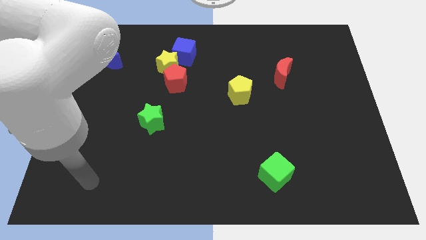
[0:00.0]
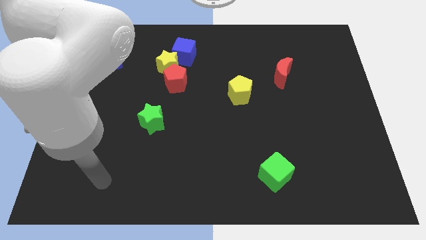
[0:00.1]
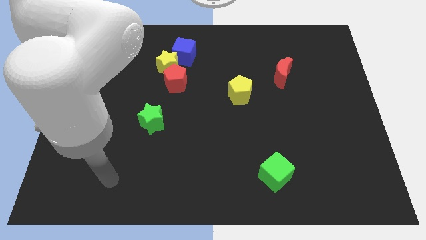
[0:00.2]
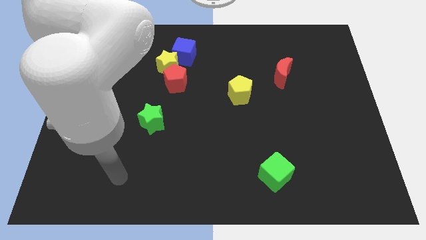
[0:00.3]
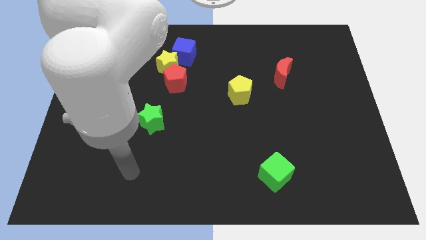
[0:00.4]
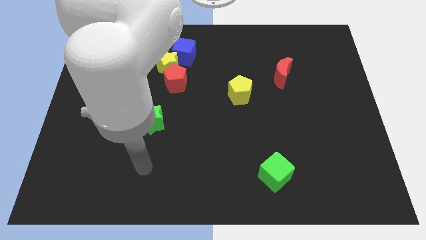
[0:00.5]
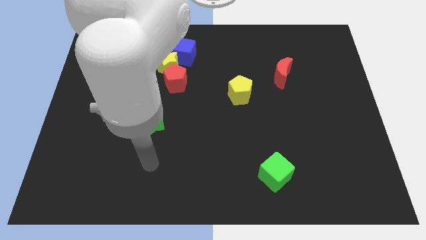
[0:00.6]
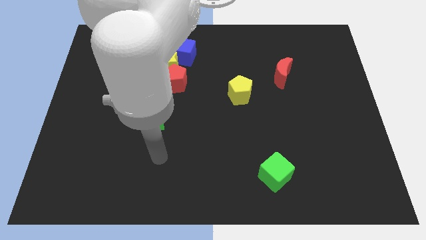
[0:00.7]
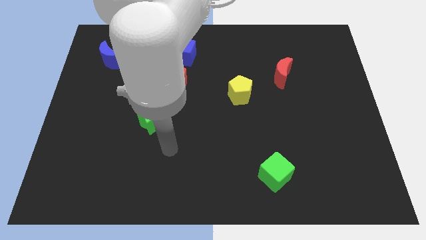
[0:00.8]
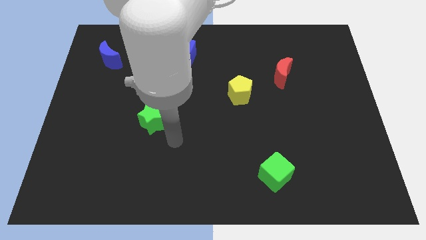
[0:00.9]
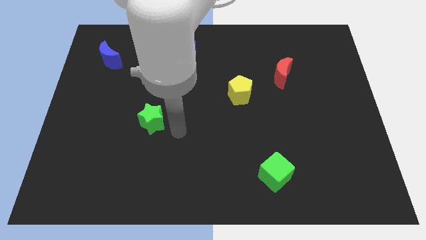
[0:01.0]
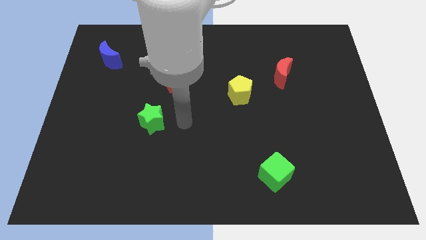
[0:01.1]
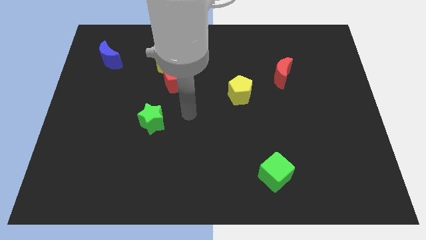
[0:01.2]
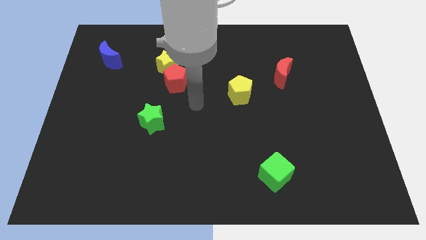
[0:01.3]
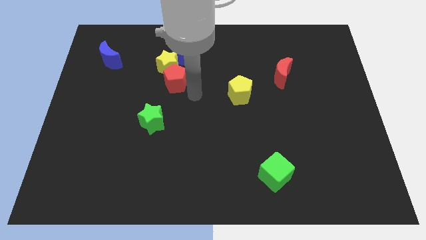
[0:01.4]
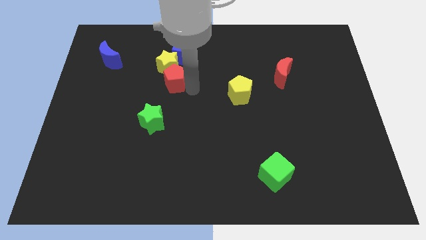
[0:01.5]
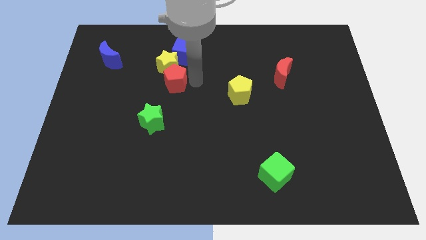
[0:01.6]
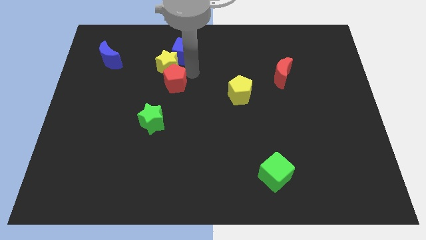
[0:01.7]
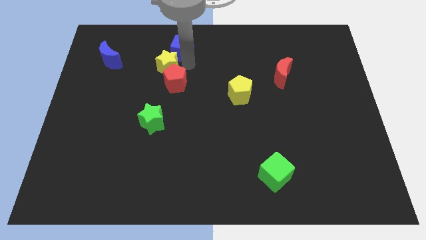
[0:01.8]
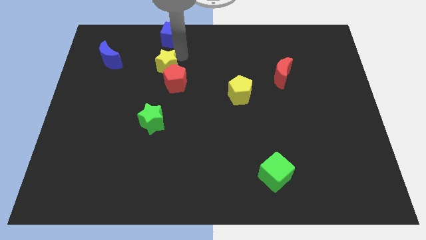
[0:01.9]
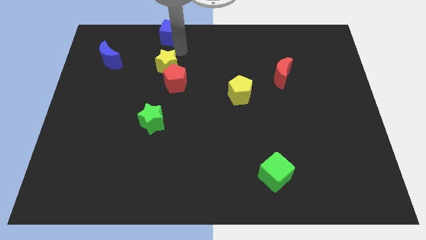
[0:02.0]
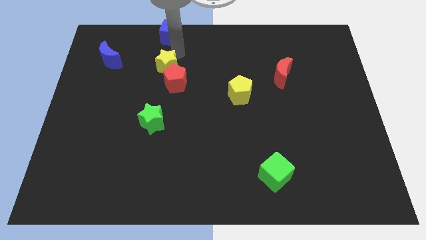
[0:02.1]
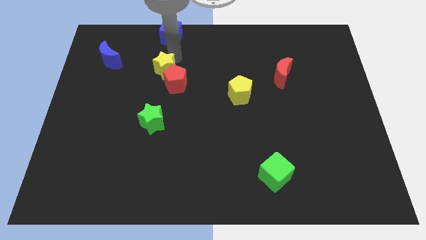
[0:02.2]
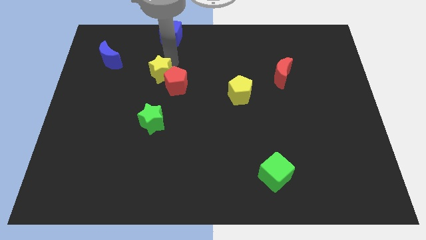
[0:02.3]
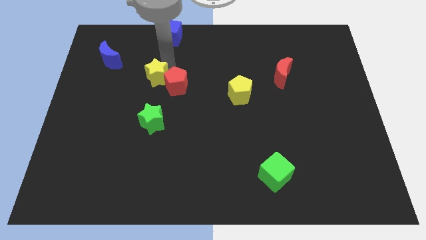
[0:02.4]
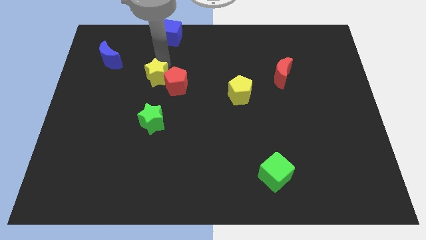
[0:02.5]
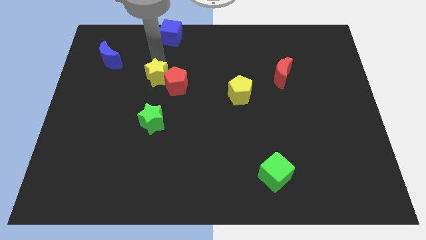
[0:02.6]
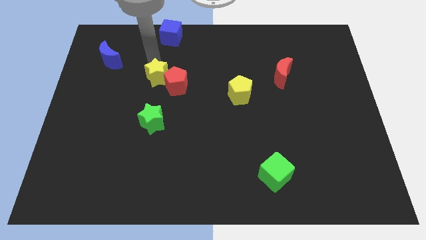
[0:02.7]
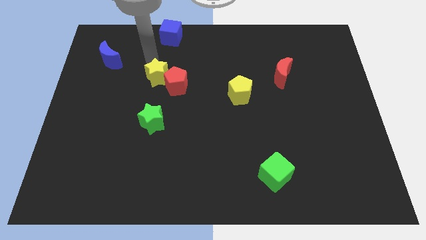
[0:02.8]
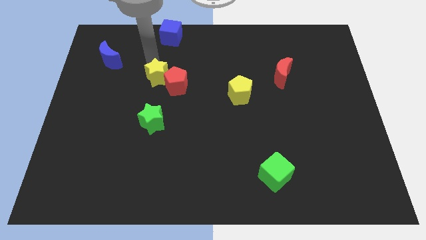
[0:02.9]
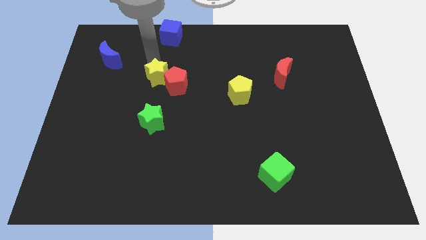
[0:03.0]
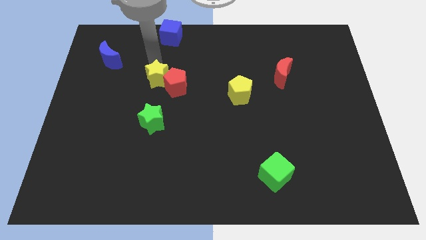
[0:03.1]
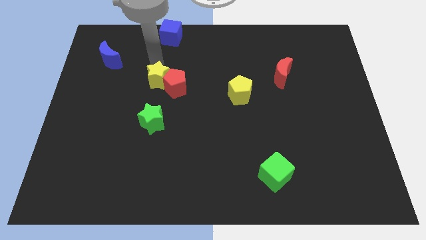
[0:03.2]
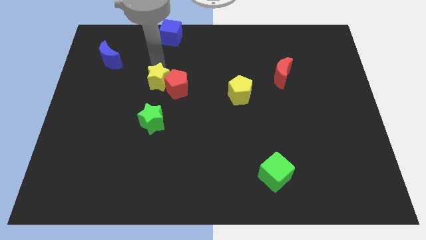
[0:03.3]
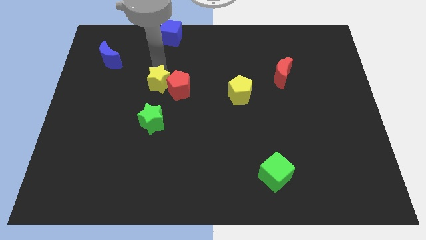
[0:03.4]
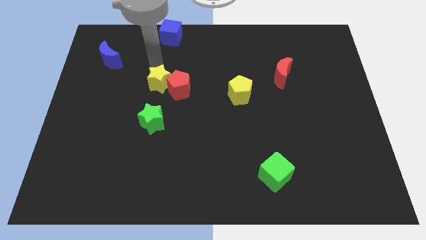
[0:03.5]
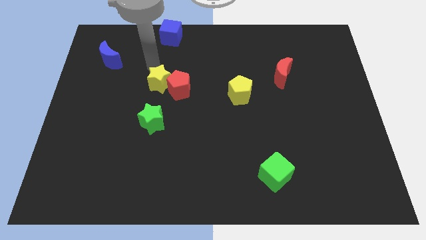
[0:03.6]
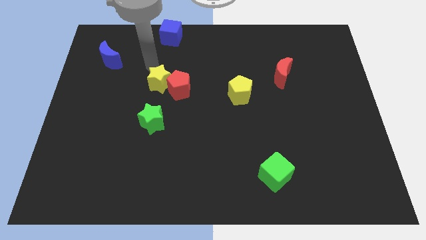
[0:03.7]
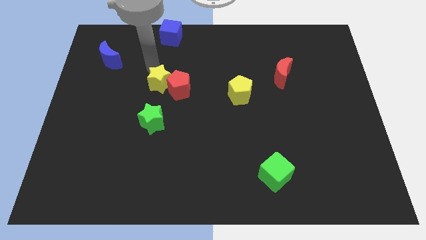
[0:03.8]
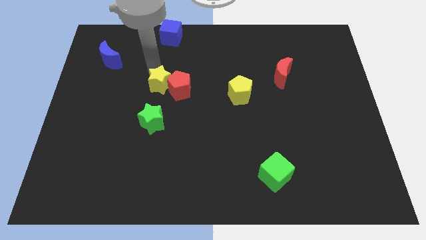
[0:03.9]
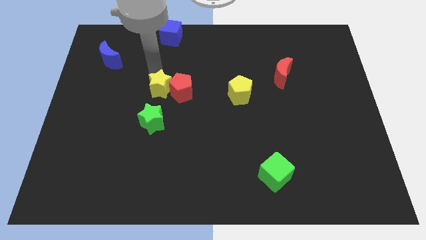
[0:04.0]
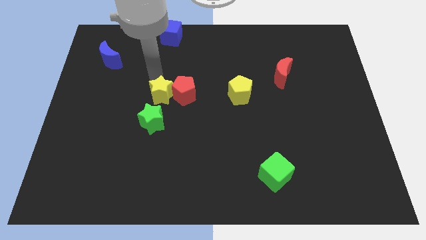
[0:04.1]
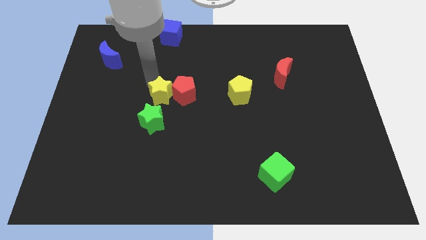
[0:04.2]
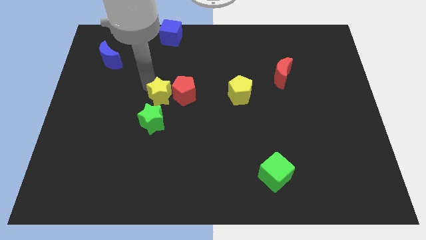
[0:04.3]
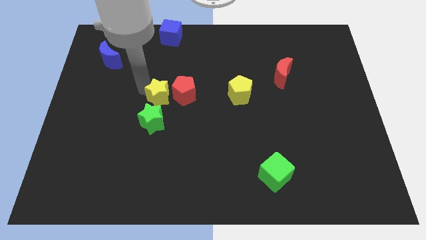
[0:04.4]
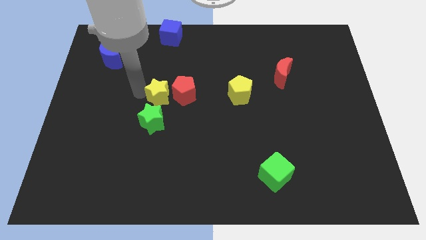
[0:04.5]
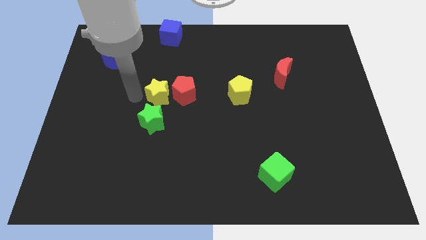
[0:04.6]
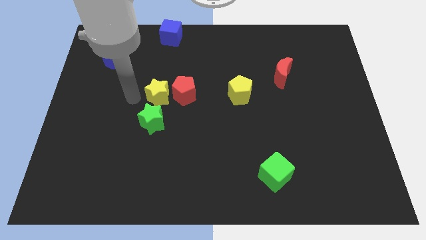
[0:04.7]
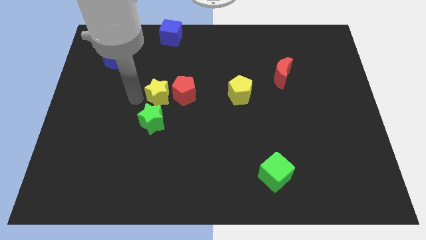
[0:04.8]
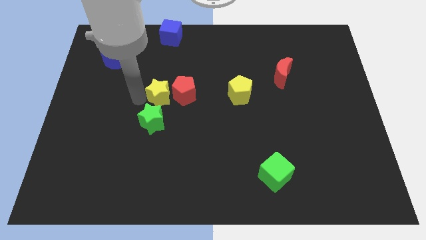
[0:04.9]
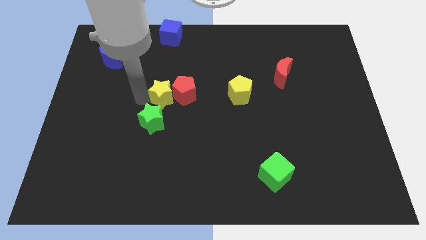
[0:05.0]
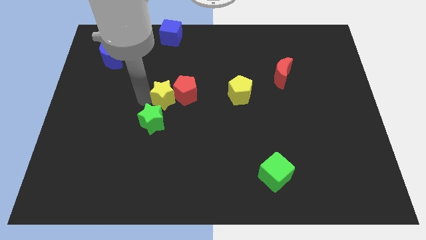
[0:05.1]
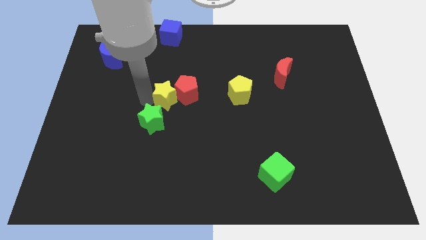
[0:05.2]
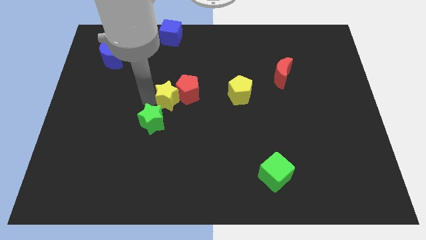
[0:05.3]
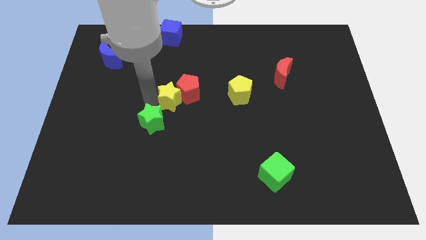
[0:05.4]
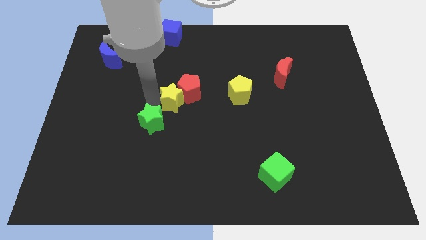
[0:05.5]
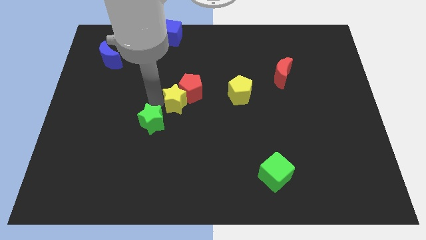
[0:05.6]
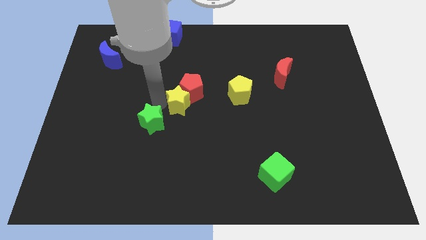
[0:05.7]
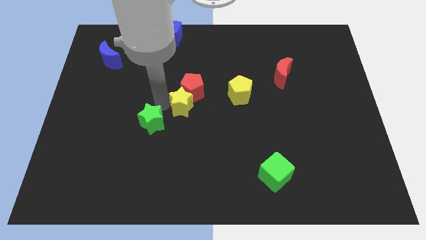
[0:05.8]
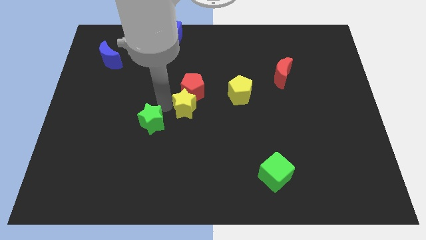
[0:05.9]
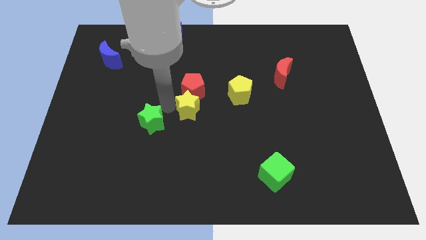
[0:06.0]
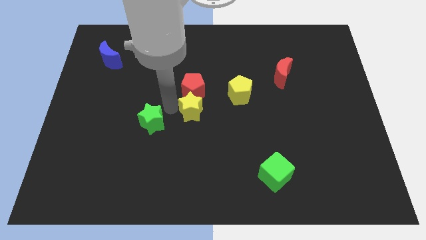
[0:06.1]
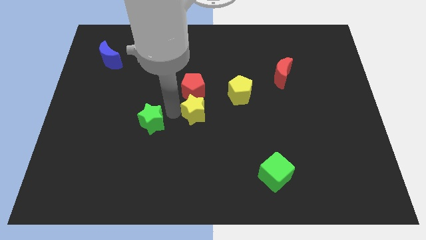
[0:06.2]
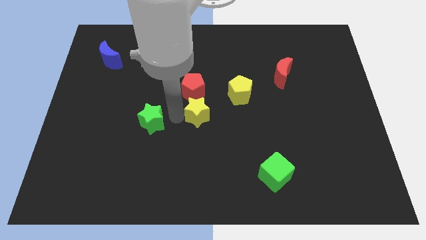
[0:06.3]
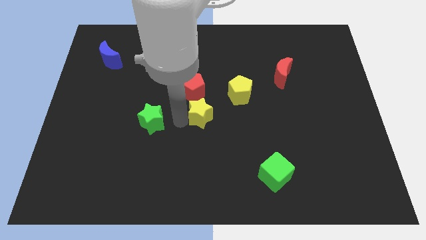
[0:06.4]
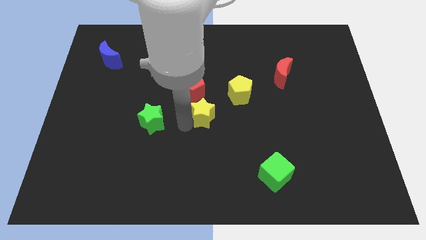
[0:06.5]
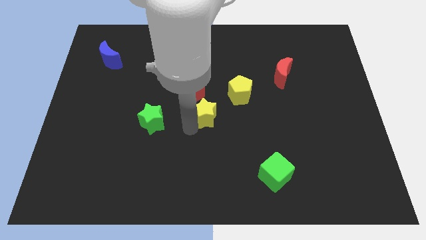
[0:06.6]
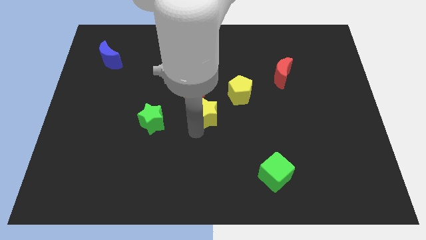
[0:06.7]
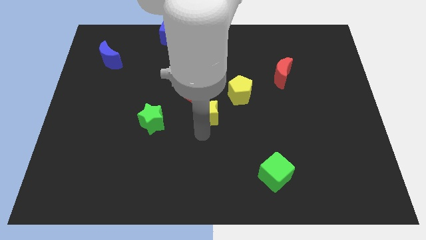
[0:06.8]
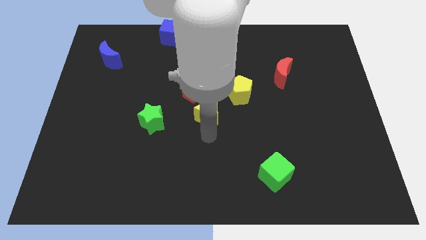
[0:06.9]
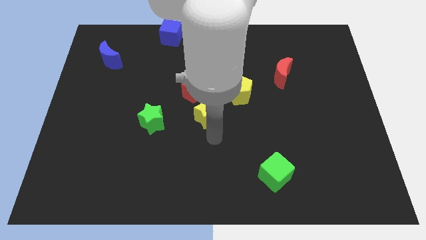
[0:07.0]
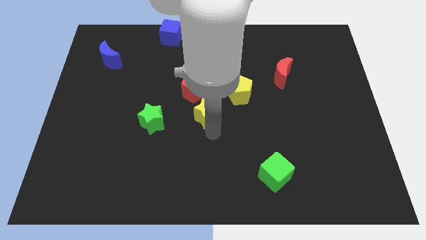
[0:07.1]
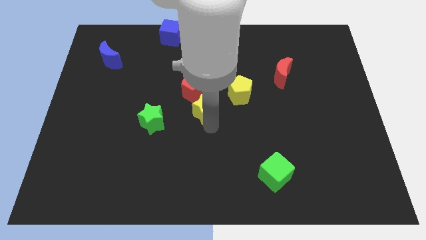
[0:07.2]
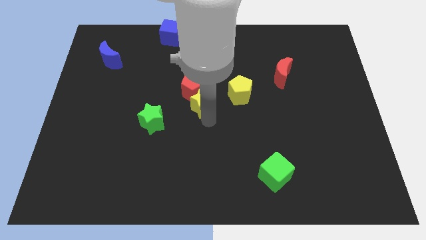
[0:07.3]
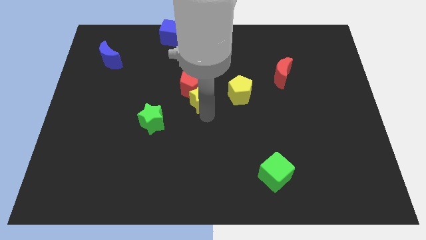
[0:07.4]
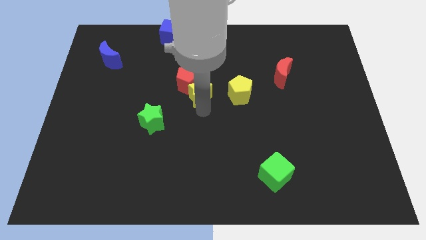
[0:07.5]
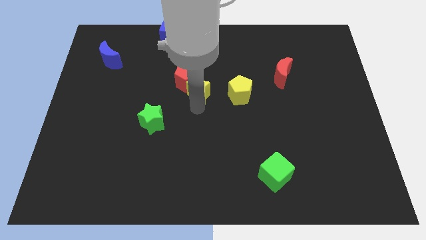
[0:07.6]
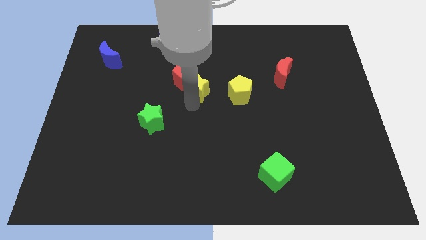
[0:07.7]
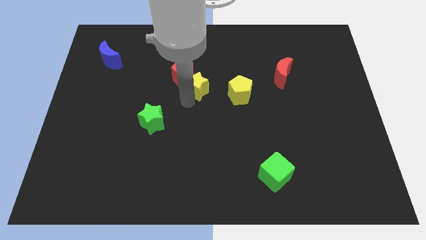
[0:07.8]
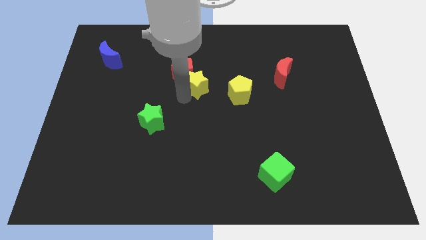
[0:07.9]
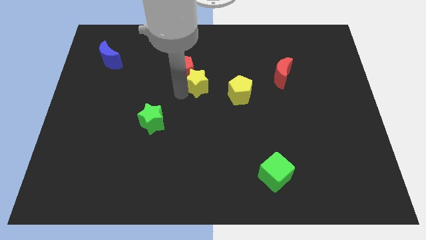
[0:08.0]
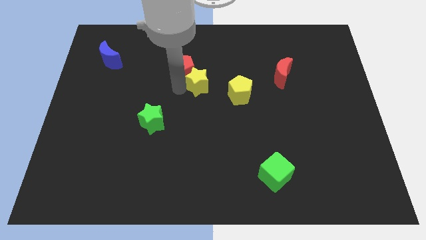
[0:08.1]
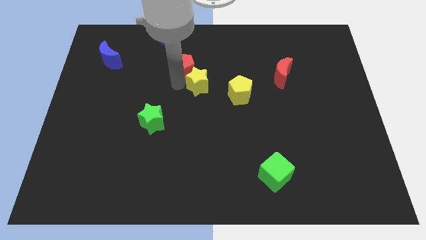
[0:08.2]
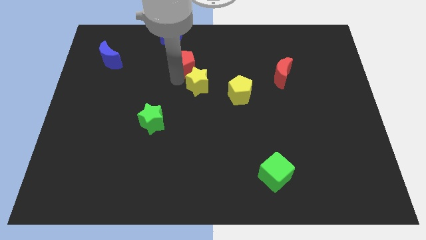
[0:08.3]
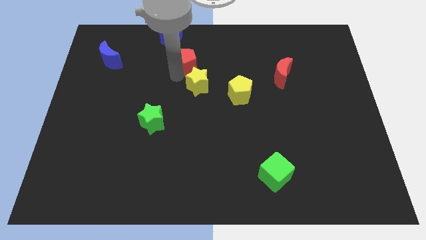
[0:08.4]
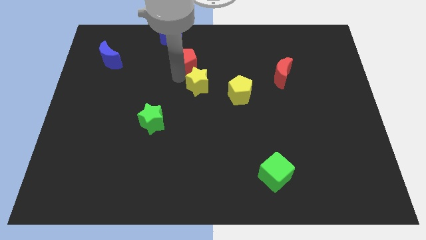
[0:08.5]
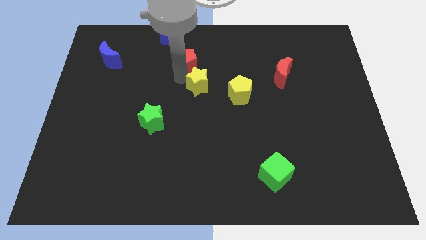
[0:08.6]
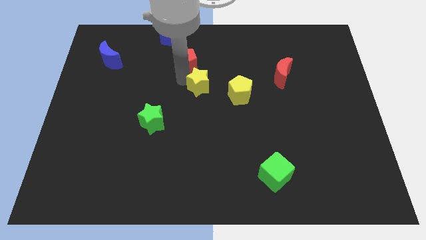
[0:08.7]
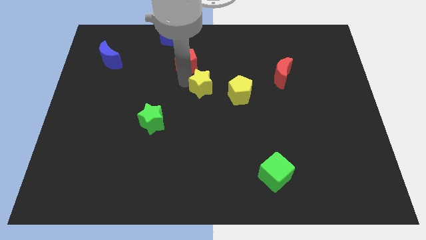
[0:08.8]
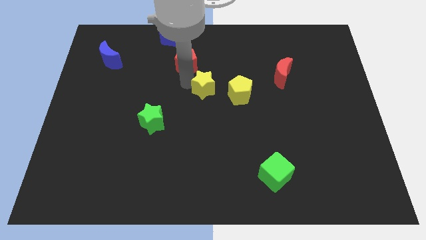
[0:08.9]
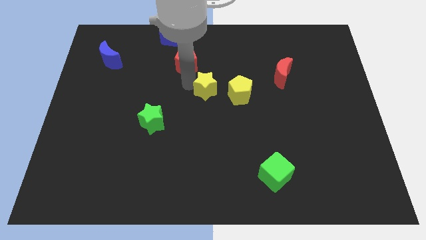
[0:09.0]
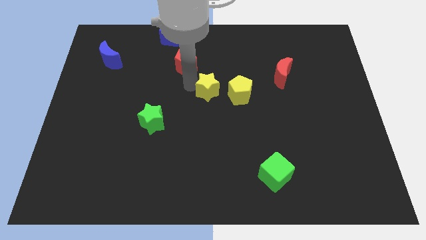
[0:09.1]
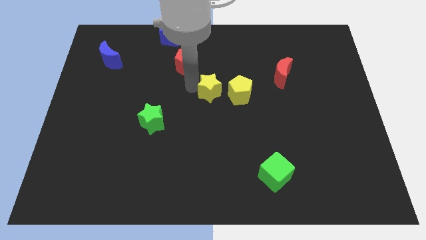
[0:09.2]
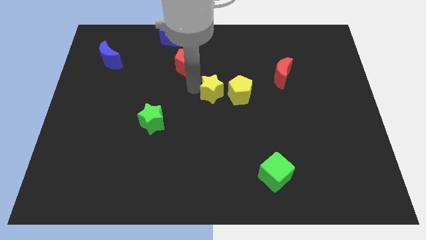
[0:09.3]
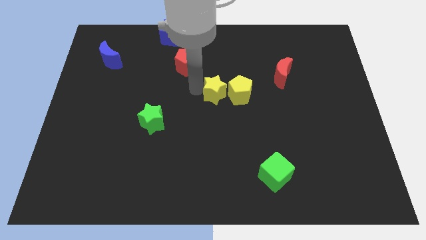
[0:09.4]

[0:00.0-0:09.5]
slide the yellow star next to the yellow pentagon
